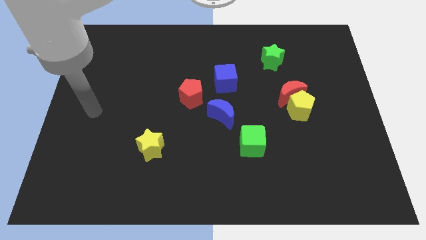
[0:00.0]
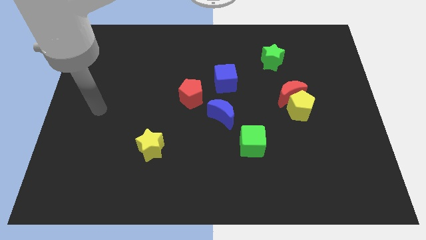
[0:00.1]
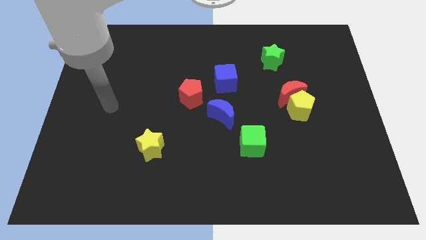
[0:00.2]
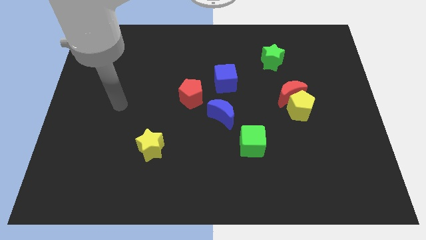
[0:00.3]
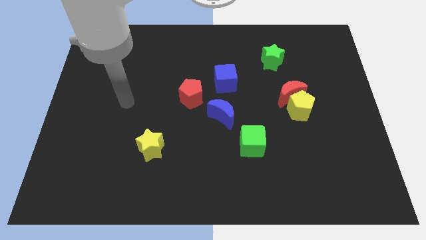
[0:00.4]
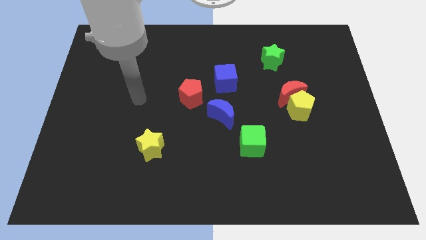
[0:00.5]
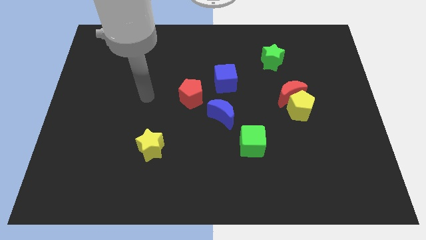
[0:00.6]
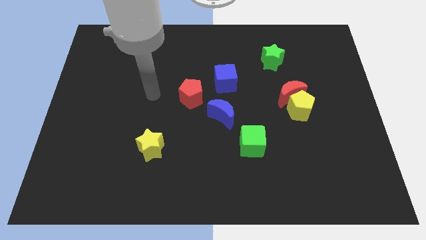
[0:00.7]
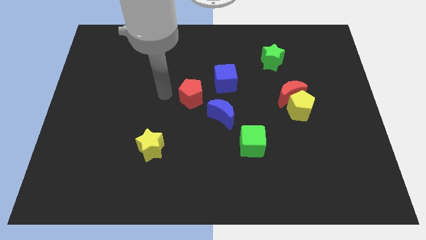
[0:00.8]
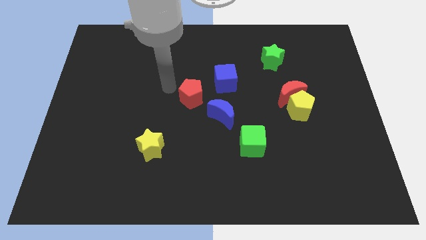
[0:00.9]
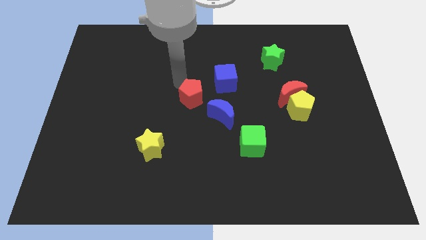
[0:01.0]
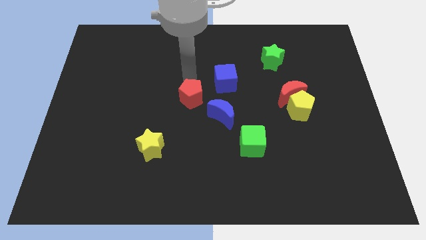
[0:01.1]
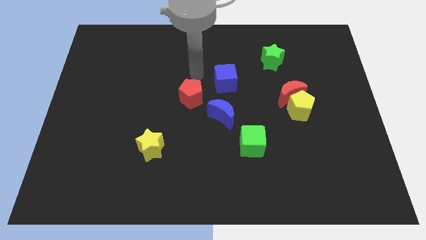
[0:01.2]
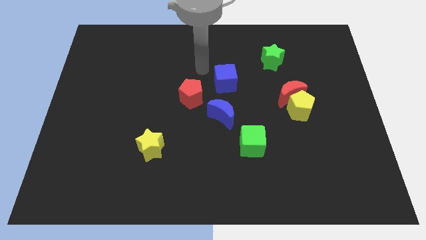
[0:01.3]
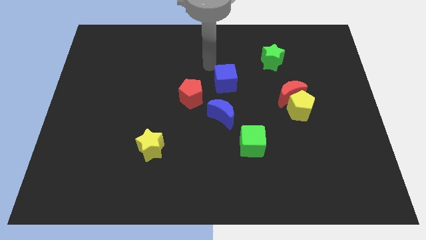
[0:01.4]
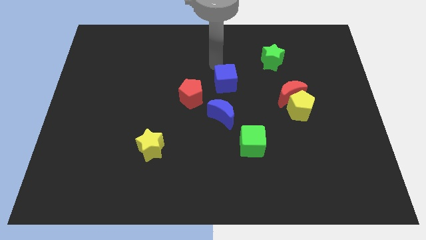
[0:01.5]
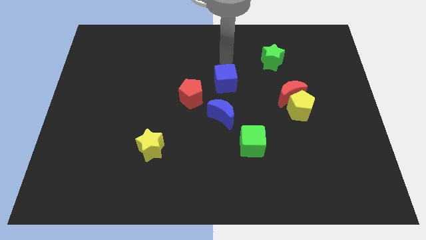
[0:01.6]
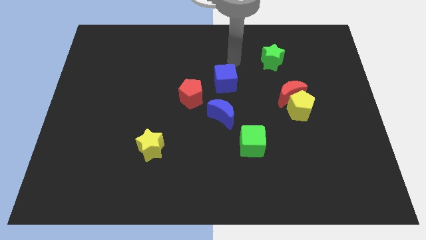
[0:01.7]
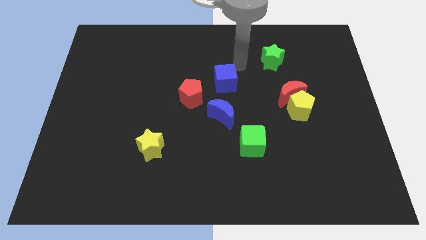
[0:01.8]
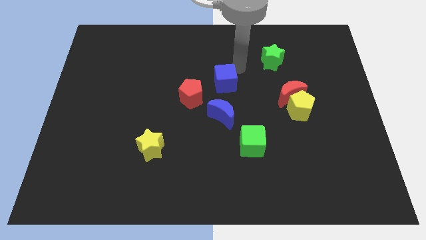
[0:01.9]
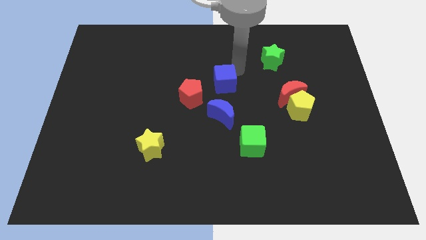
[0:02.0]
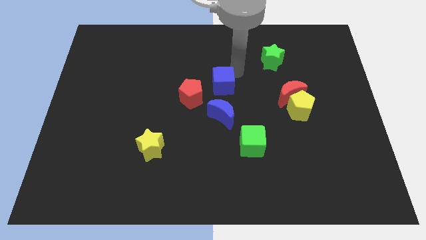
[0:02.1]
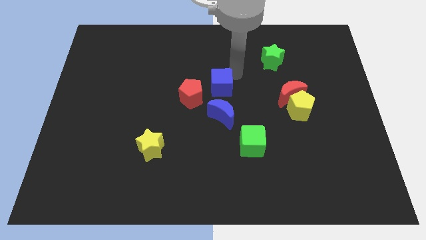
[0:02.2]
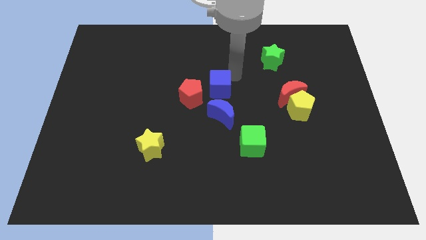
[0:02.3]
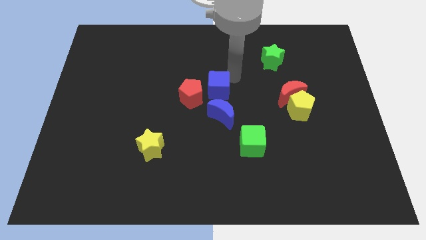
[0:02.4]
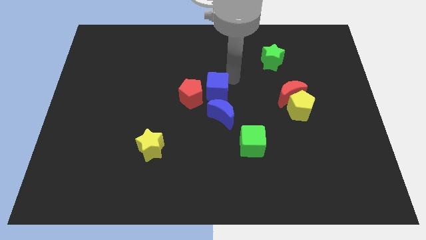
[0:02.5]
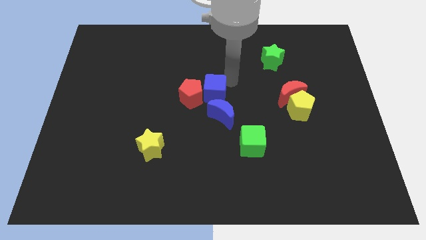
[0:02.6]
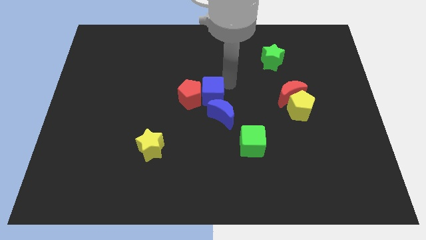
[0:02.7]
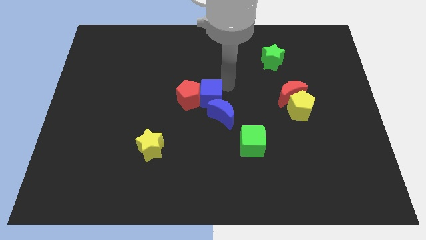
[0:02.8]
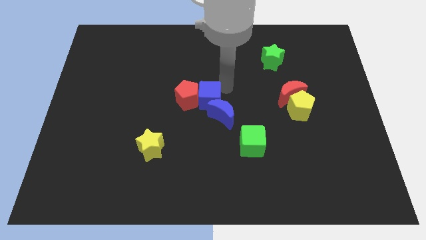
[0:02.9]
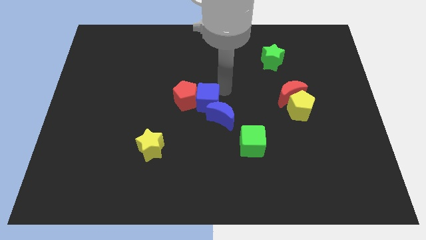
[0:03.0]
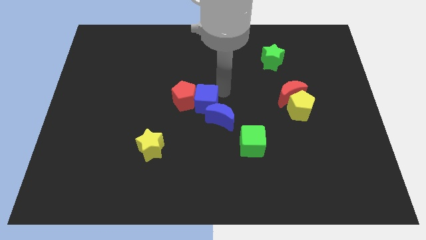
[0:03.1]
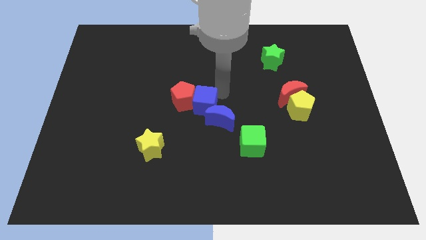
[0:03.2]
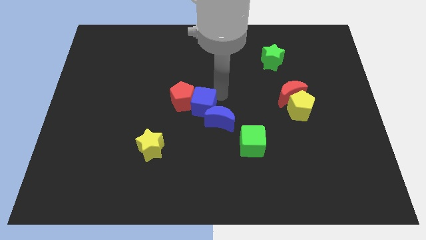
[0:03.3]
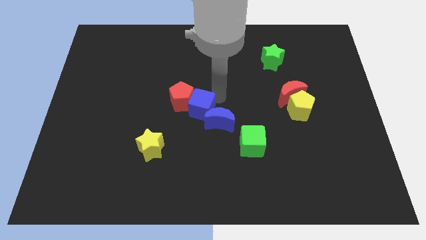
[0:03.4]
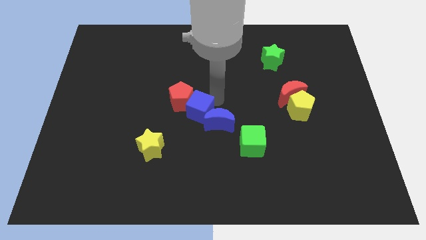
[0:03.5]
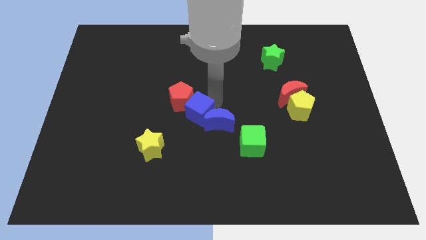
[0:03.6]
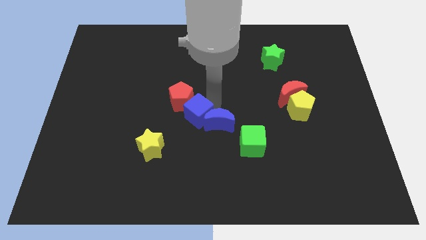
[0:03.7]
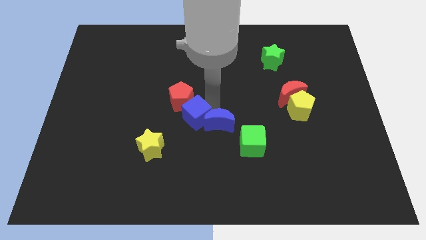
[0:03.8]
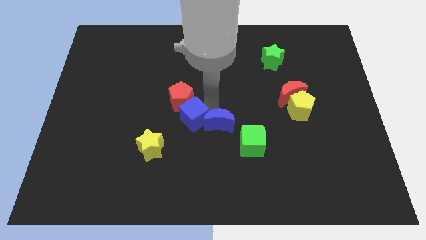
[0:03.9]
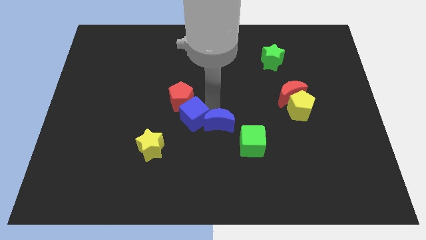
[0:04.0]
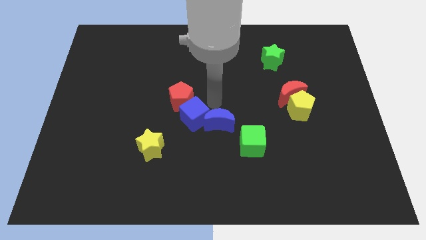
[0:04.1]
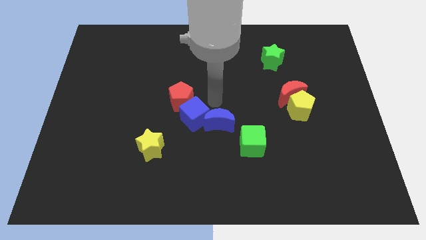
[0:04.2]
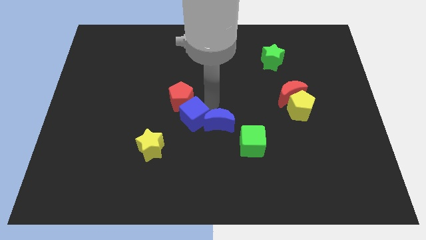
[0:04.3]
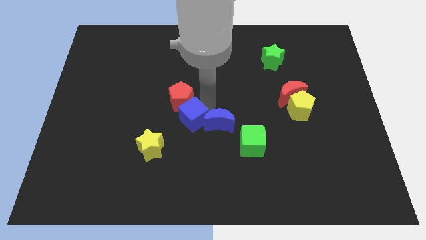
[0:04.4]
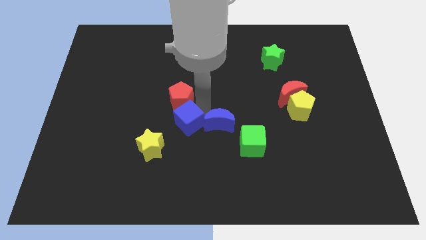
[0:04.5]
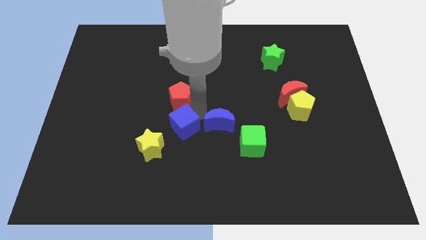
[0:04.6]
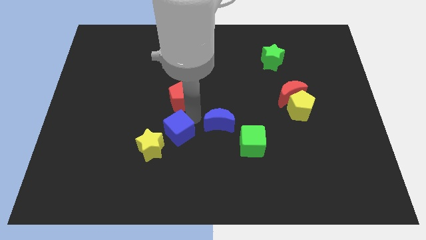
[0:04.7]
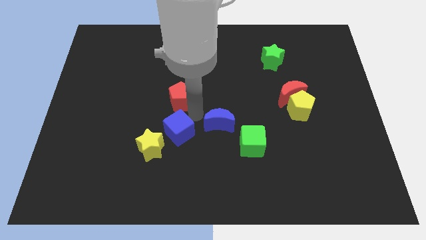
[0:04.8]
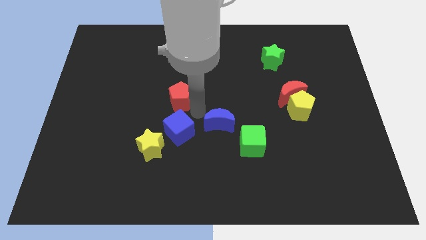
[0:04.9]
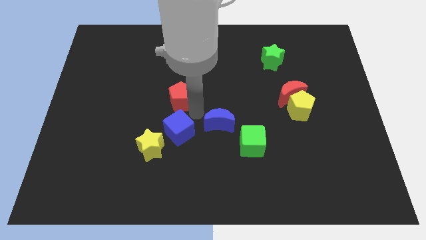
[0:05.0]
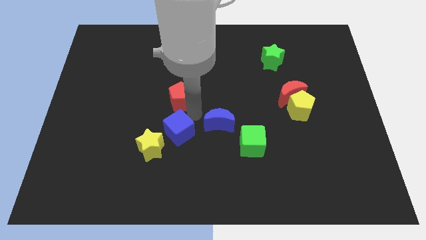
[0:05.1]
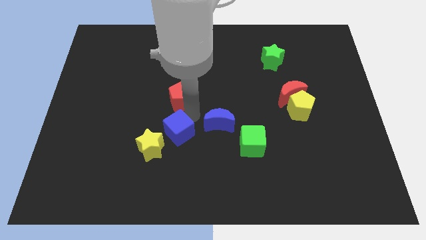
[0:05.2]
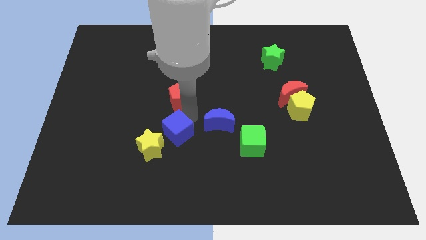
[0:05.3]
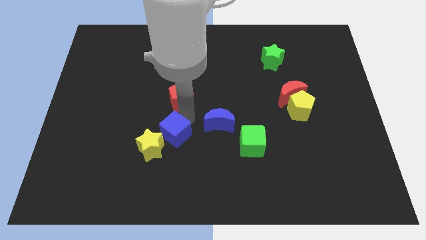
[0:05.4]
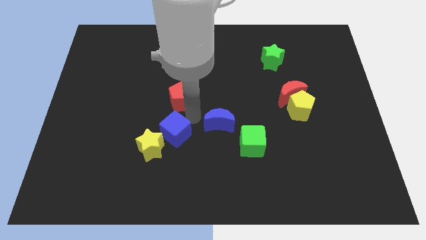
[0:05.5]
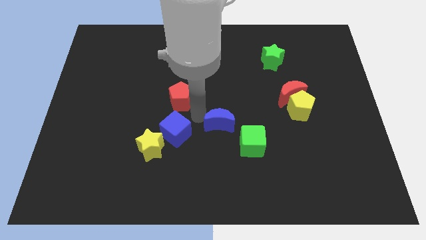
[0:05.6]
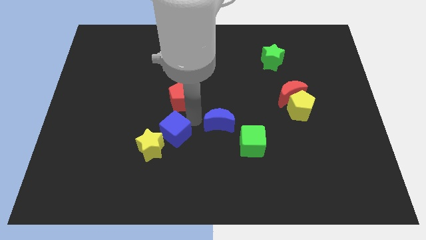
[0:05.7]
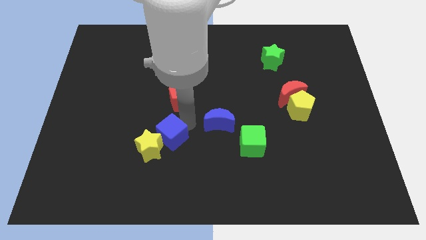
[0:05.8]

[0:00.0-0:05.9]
push the blue cube next to the yellow star

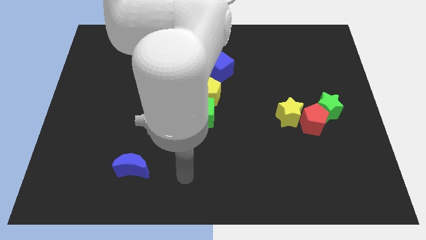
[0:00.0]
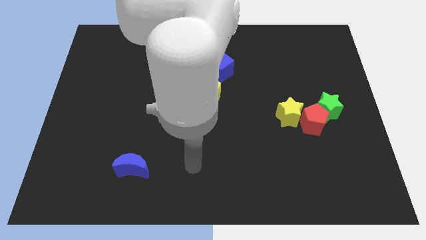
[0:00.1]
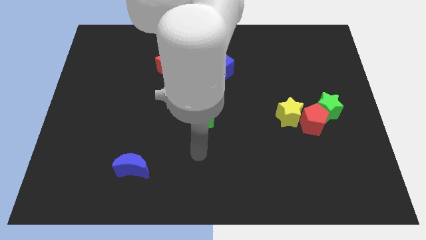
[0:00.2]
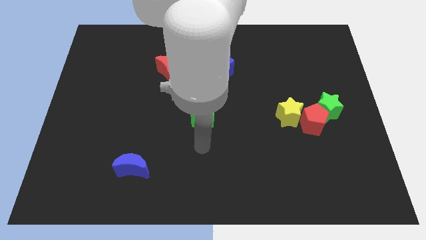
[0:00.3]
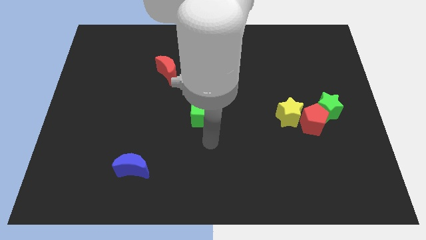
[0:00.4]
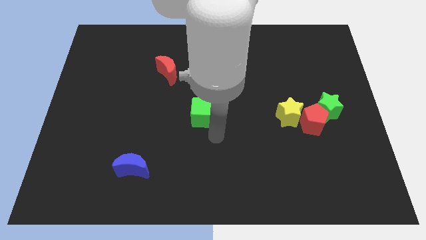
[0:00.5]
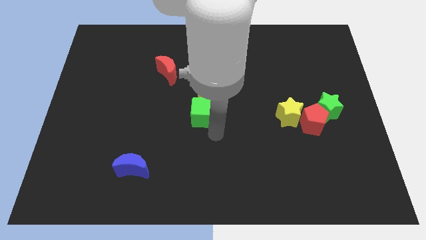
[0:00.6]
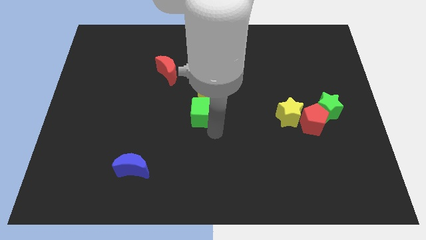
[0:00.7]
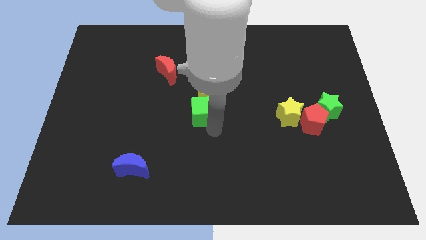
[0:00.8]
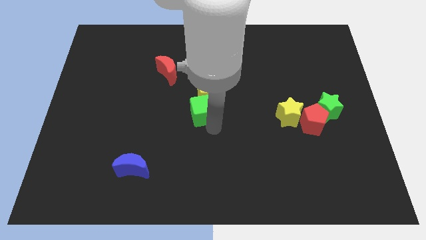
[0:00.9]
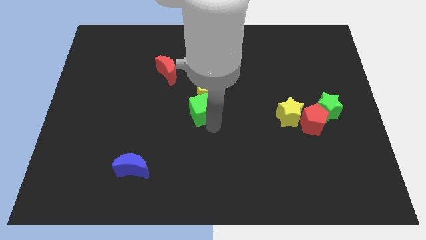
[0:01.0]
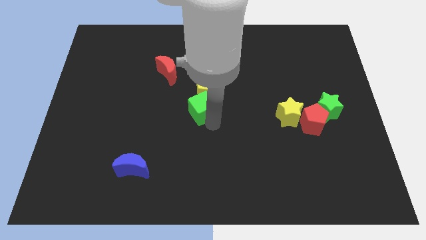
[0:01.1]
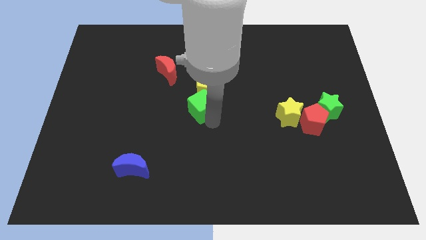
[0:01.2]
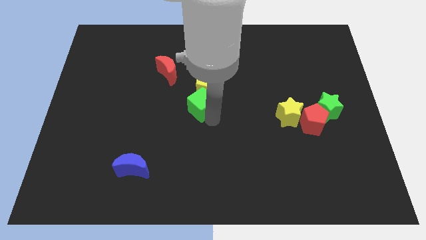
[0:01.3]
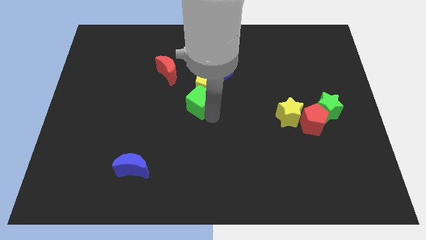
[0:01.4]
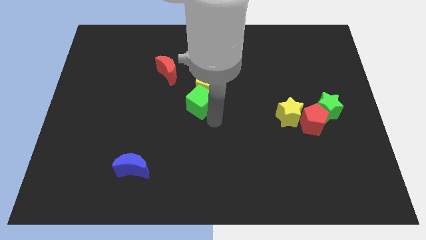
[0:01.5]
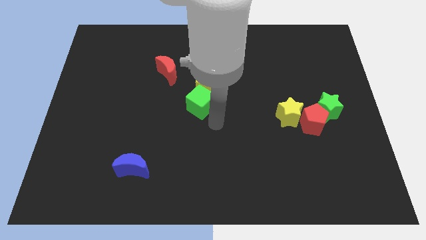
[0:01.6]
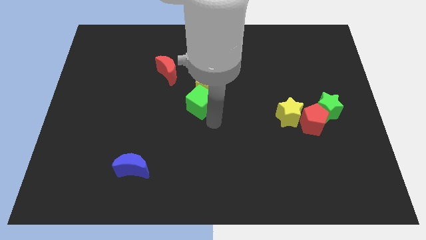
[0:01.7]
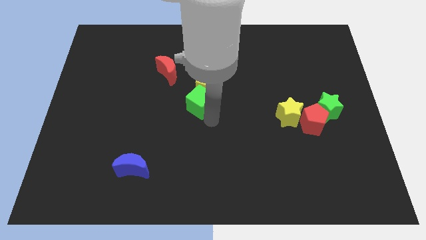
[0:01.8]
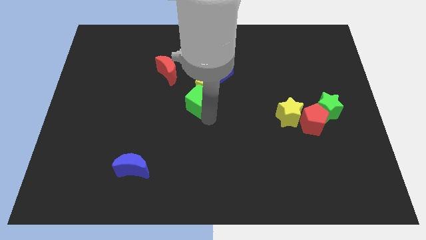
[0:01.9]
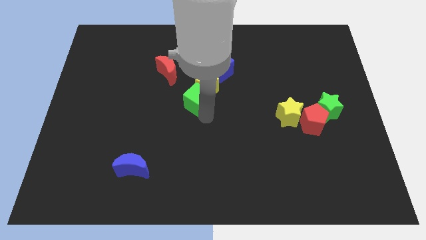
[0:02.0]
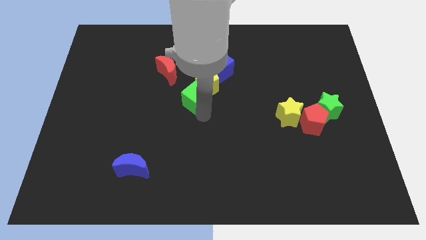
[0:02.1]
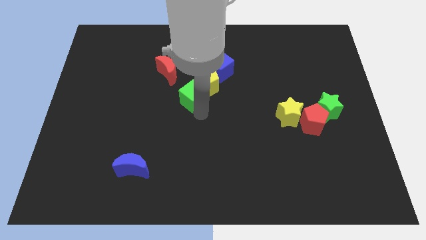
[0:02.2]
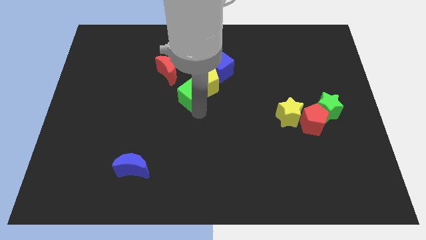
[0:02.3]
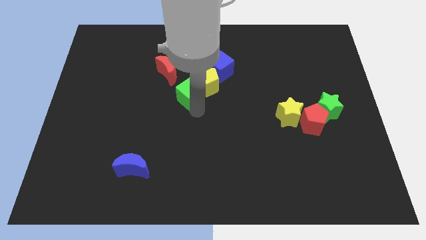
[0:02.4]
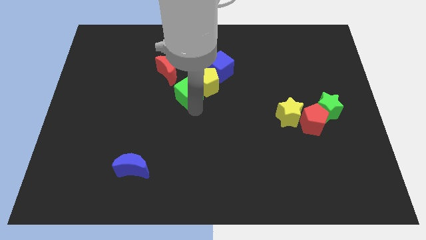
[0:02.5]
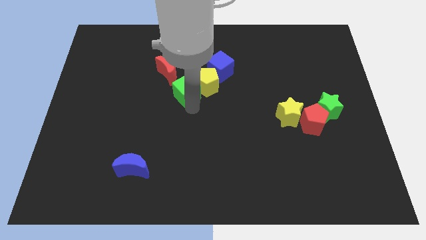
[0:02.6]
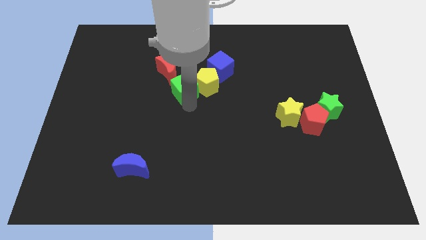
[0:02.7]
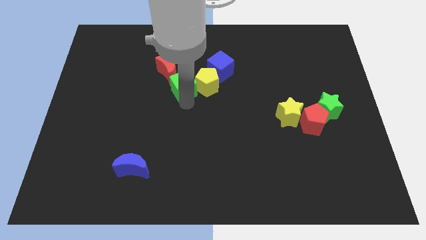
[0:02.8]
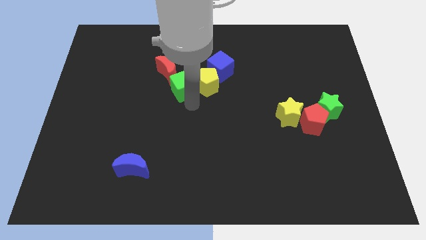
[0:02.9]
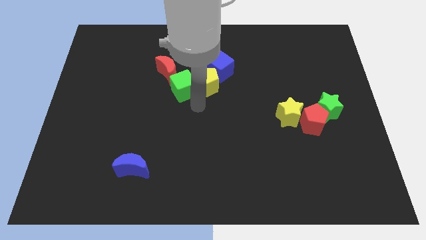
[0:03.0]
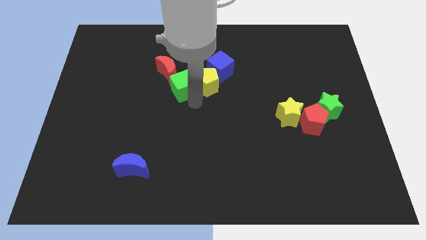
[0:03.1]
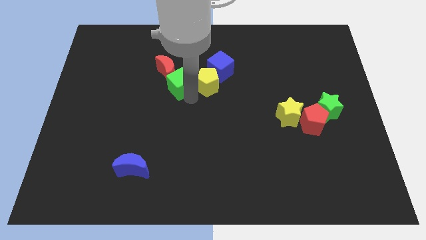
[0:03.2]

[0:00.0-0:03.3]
put the green cube towards the red moon
